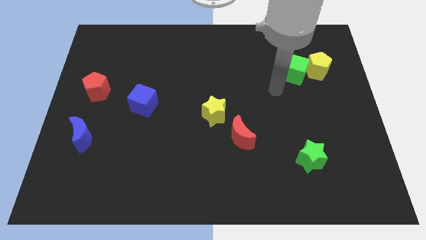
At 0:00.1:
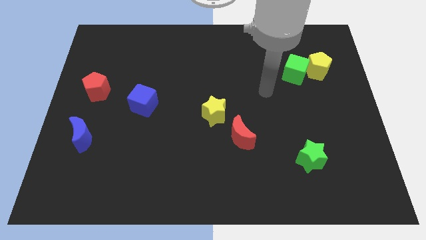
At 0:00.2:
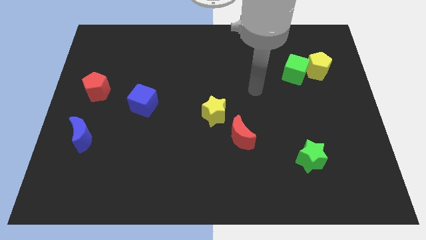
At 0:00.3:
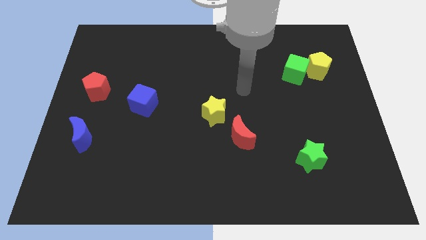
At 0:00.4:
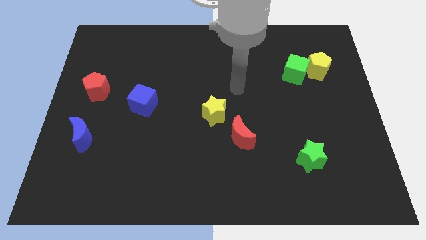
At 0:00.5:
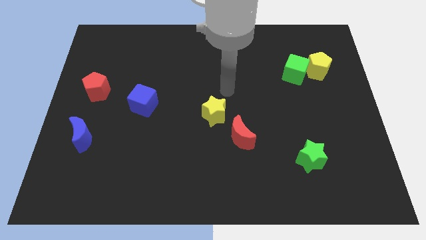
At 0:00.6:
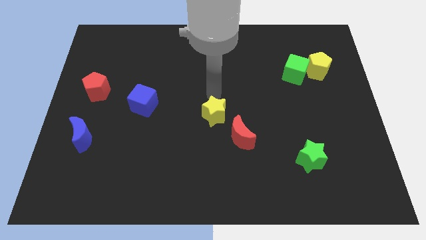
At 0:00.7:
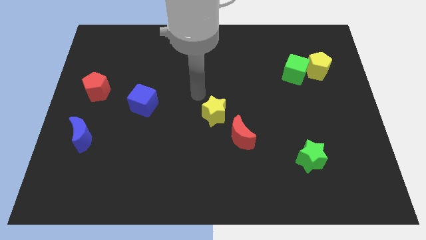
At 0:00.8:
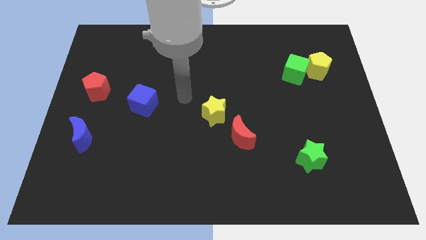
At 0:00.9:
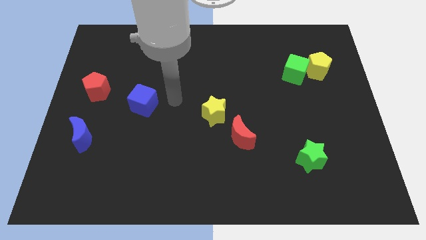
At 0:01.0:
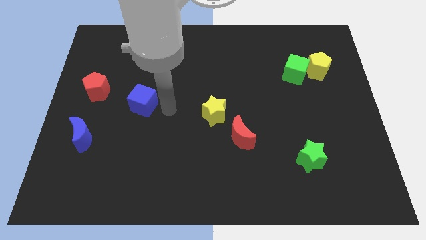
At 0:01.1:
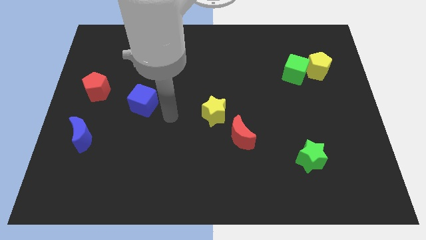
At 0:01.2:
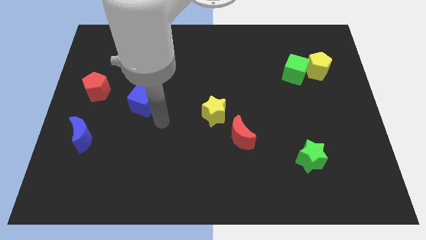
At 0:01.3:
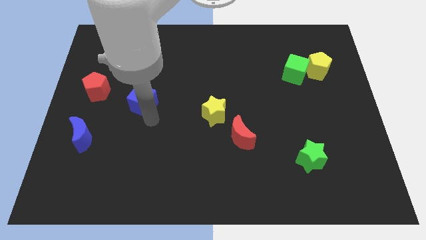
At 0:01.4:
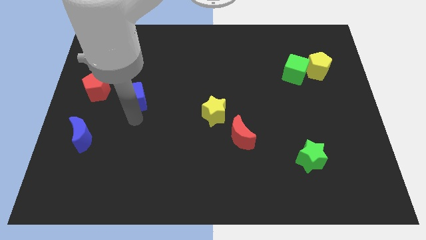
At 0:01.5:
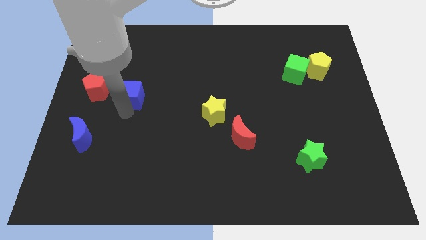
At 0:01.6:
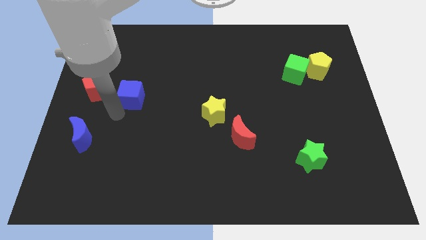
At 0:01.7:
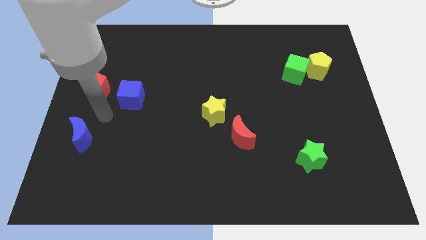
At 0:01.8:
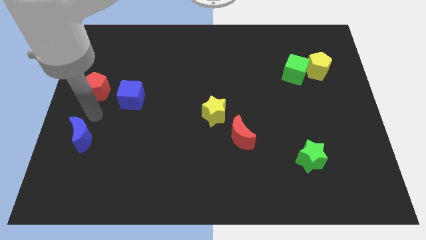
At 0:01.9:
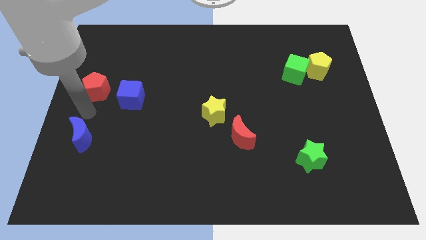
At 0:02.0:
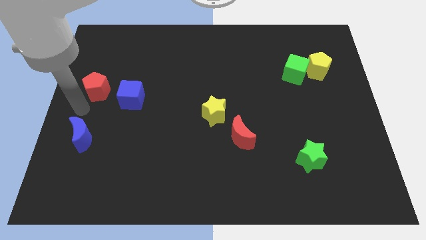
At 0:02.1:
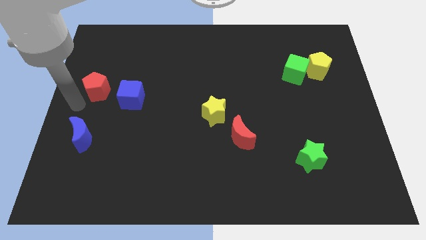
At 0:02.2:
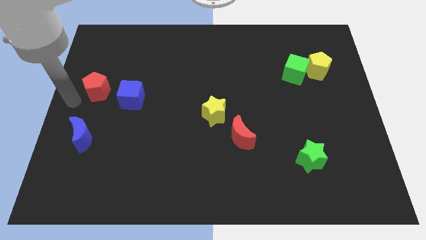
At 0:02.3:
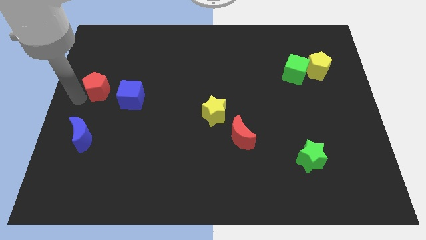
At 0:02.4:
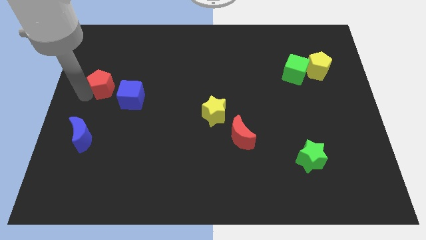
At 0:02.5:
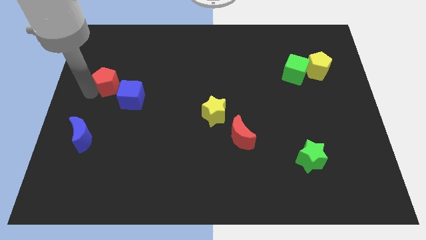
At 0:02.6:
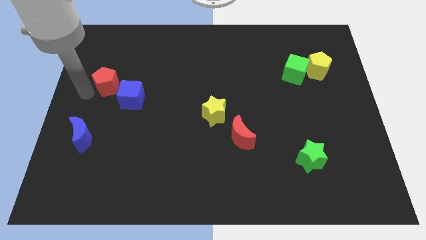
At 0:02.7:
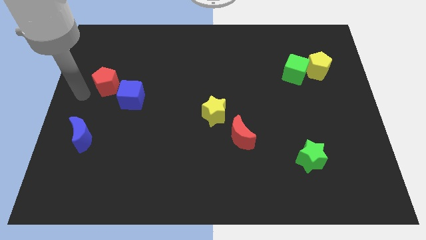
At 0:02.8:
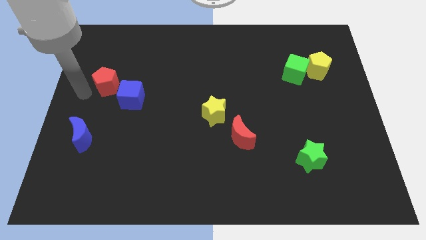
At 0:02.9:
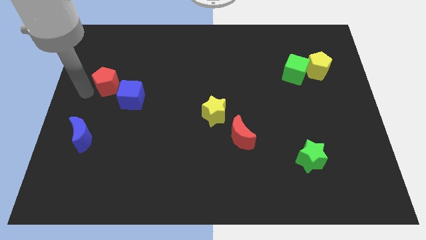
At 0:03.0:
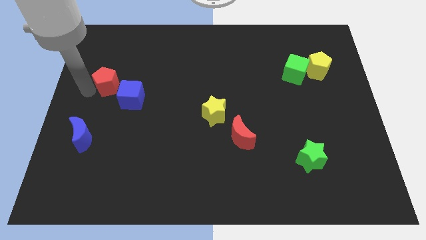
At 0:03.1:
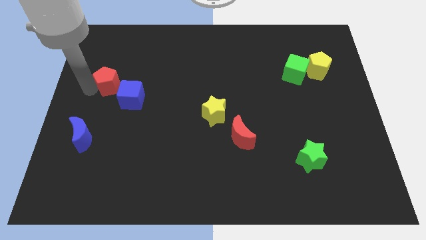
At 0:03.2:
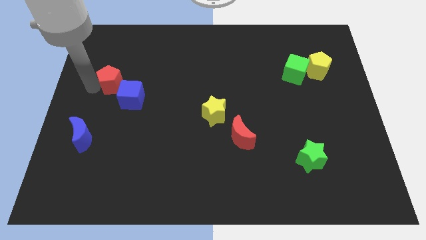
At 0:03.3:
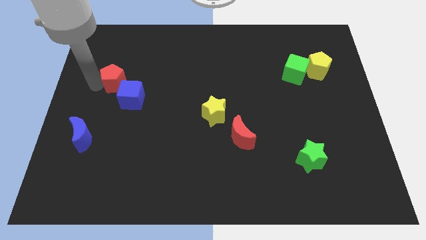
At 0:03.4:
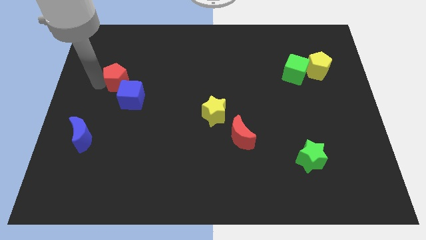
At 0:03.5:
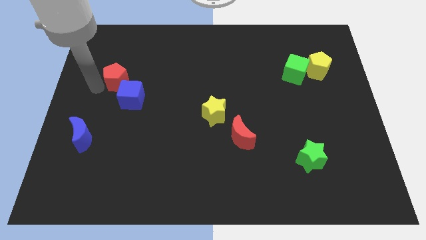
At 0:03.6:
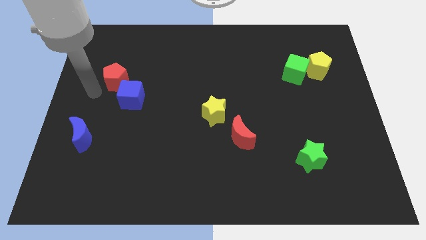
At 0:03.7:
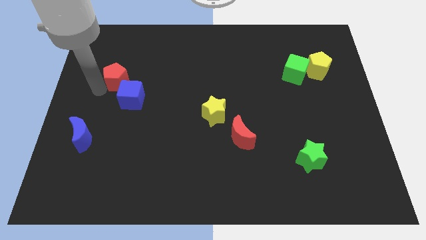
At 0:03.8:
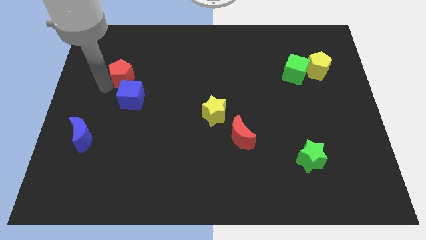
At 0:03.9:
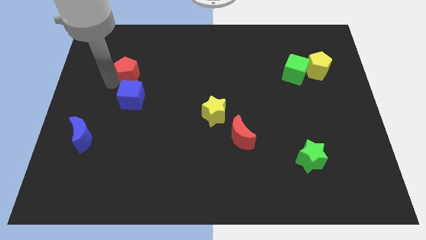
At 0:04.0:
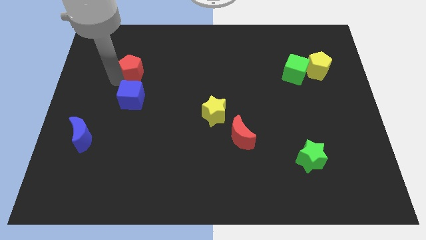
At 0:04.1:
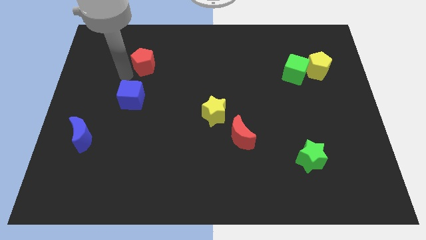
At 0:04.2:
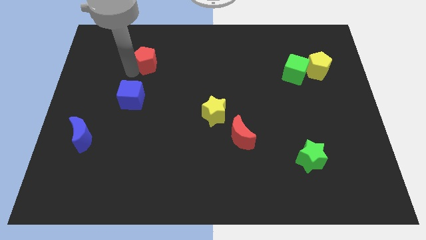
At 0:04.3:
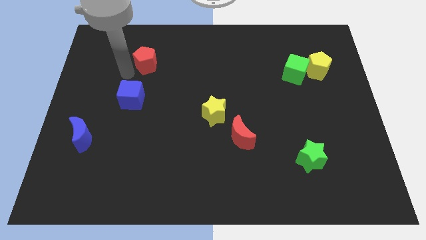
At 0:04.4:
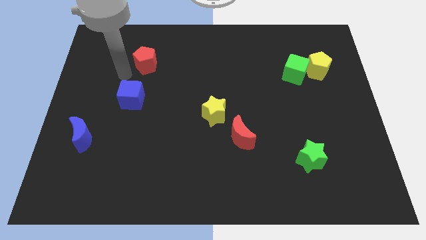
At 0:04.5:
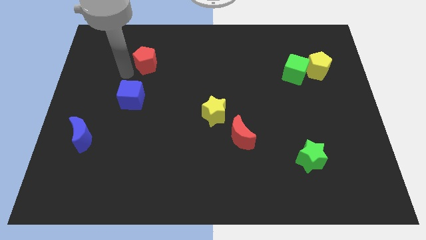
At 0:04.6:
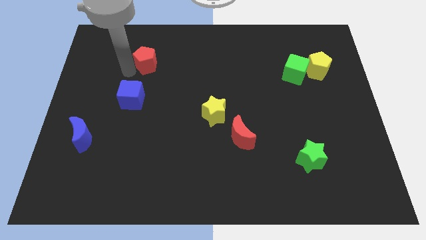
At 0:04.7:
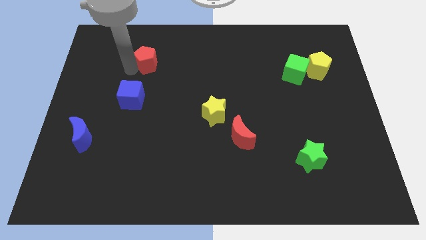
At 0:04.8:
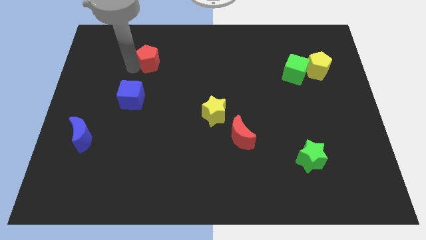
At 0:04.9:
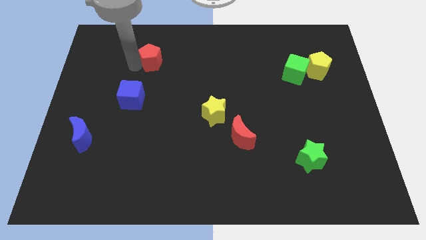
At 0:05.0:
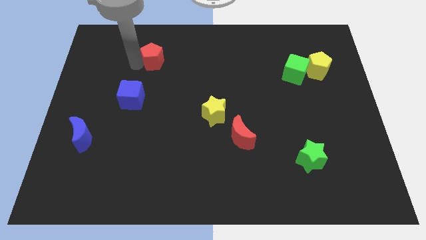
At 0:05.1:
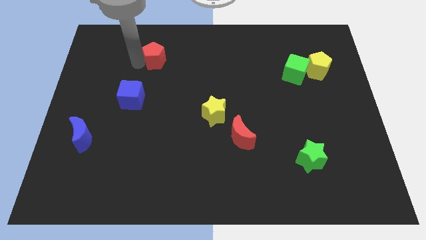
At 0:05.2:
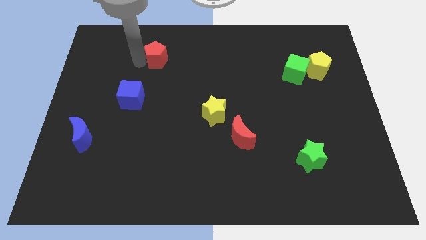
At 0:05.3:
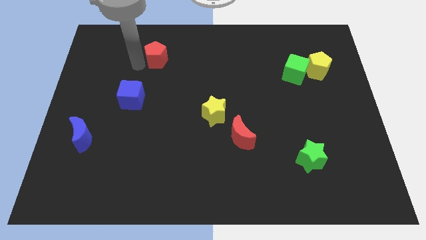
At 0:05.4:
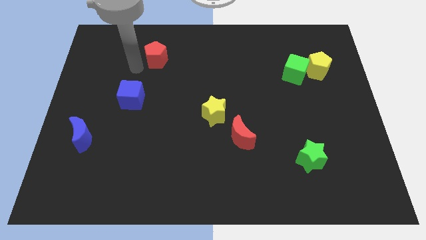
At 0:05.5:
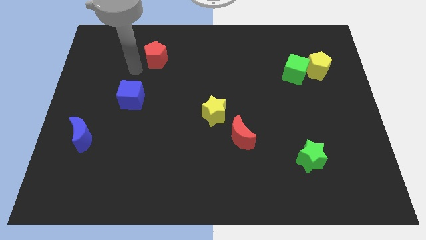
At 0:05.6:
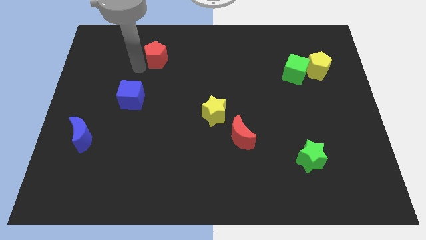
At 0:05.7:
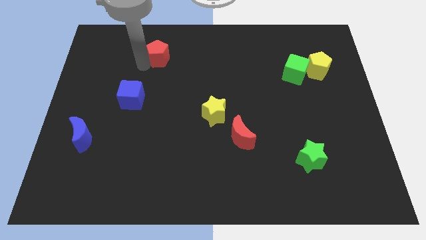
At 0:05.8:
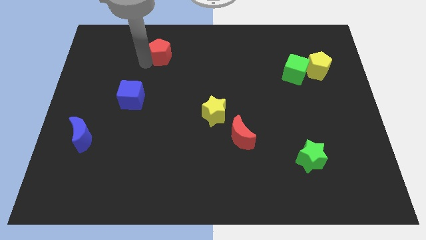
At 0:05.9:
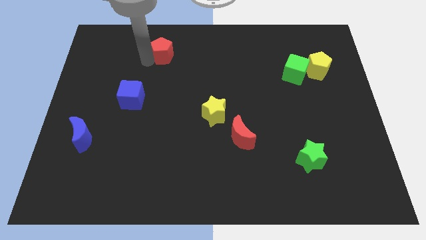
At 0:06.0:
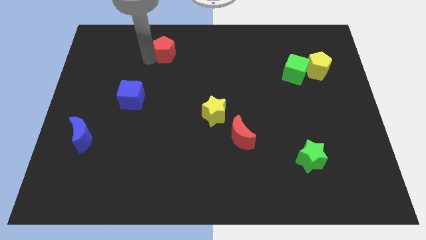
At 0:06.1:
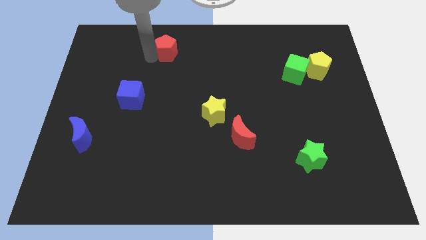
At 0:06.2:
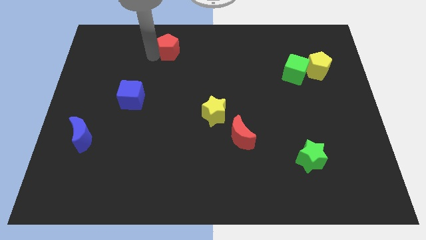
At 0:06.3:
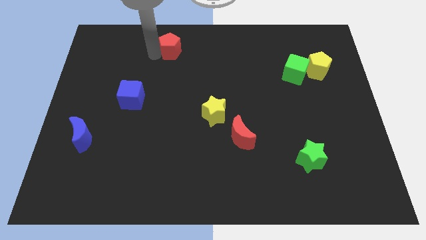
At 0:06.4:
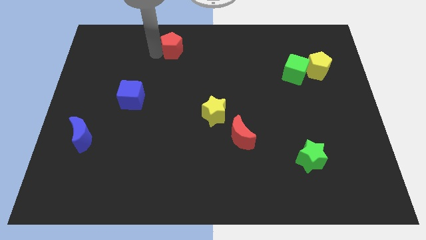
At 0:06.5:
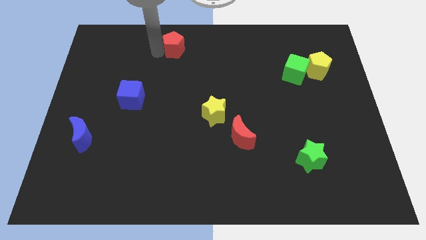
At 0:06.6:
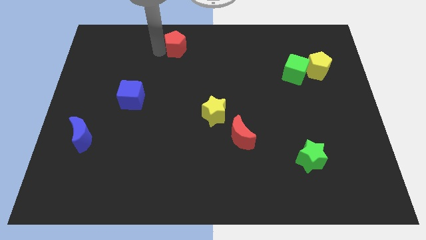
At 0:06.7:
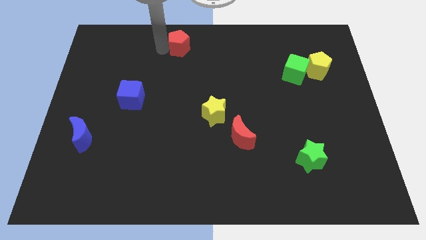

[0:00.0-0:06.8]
move the red pentagon to the towards your base
